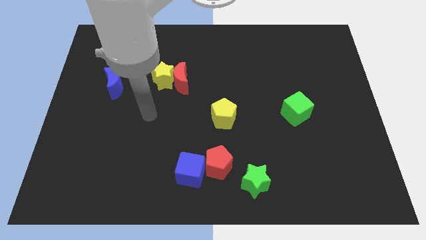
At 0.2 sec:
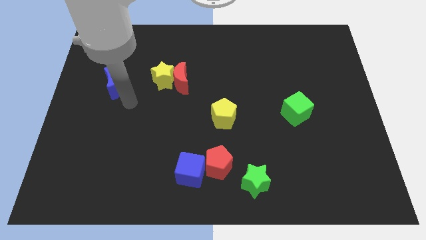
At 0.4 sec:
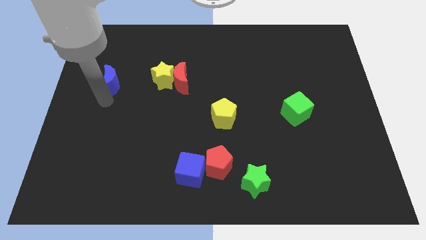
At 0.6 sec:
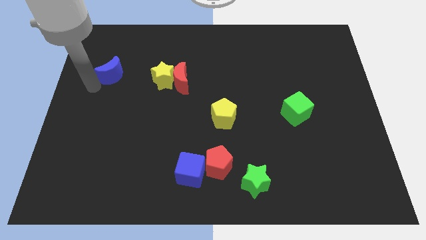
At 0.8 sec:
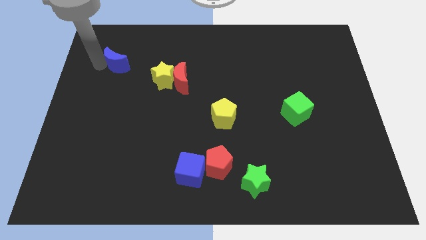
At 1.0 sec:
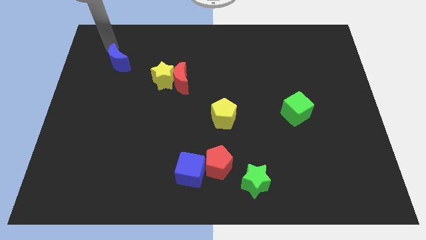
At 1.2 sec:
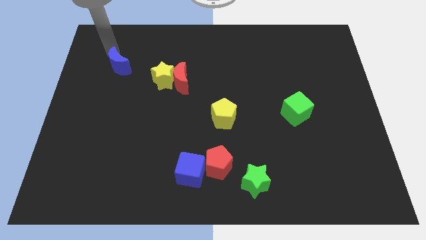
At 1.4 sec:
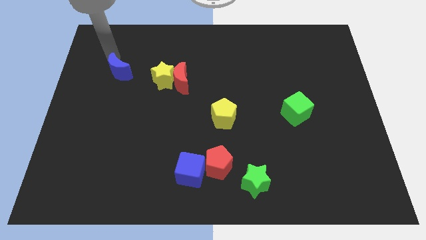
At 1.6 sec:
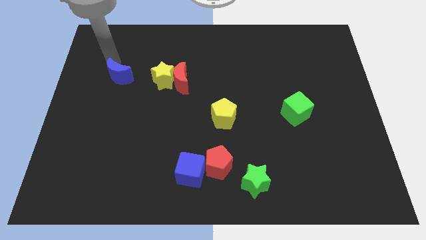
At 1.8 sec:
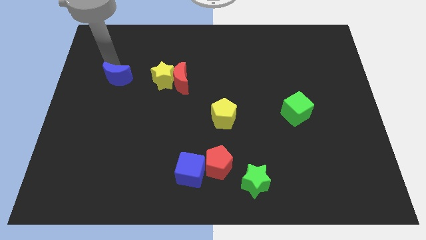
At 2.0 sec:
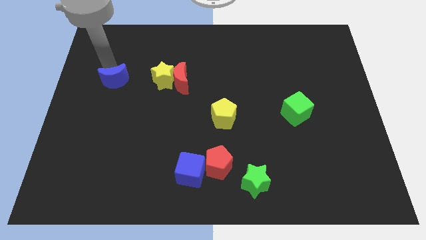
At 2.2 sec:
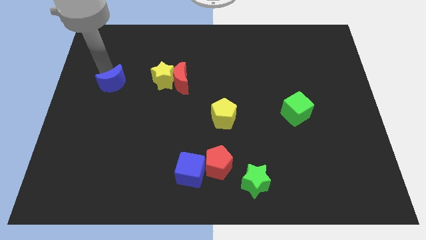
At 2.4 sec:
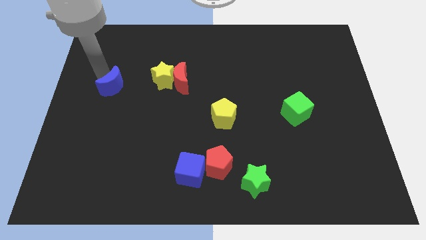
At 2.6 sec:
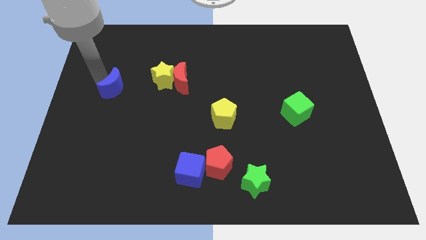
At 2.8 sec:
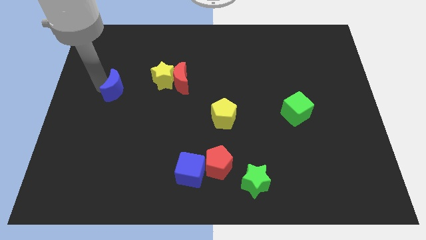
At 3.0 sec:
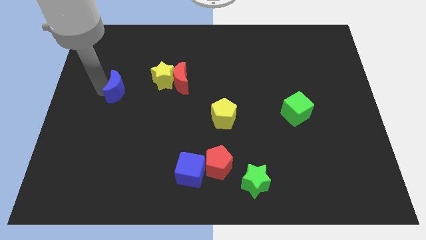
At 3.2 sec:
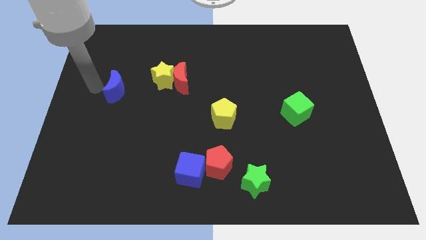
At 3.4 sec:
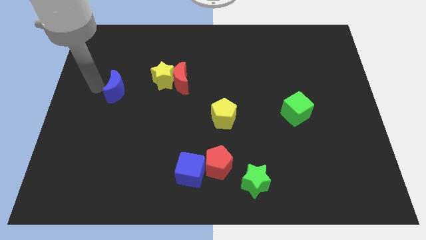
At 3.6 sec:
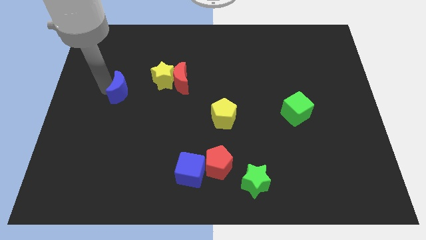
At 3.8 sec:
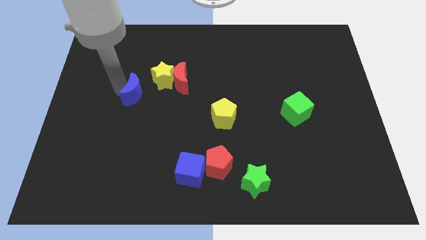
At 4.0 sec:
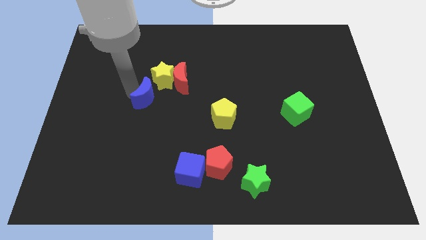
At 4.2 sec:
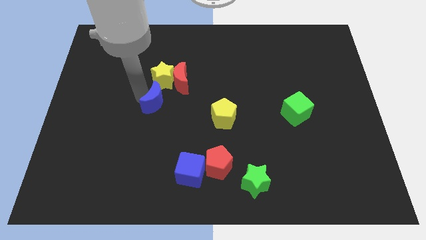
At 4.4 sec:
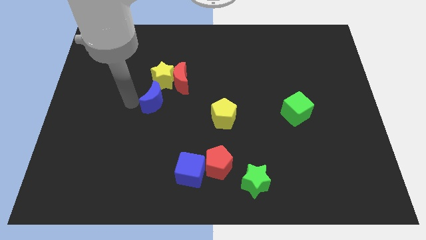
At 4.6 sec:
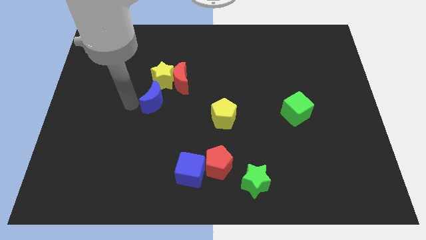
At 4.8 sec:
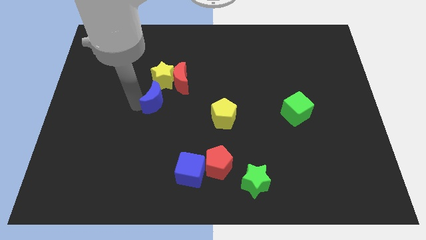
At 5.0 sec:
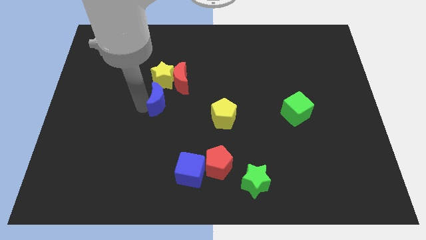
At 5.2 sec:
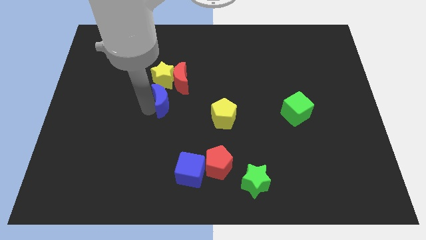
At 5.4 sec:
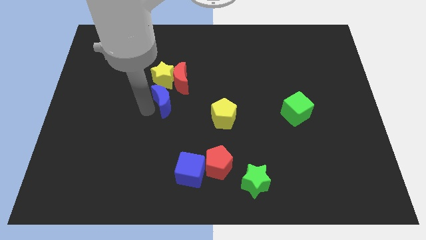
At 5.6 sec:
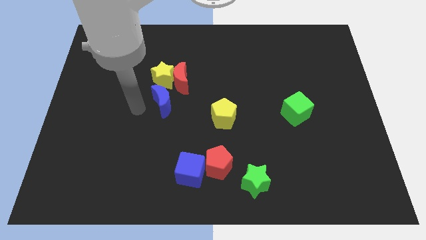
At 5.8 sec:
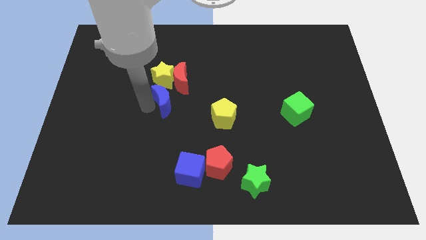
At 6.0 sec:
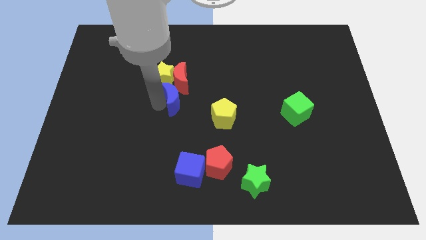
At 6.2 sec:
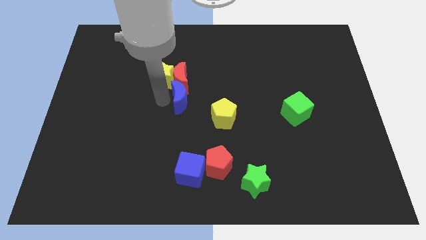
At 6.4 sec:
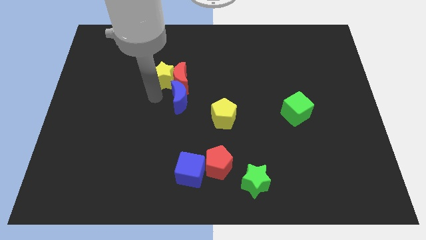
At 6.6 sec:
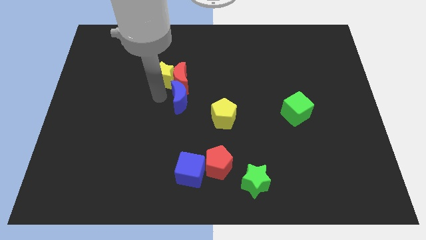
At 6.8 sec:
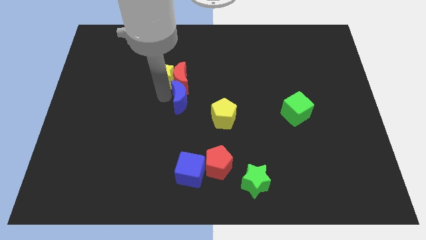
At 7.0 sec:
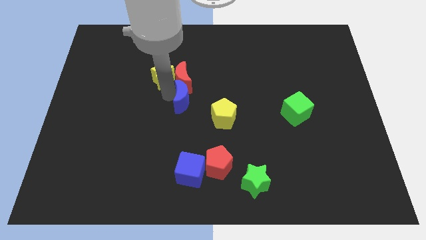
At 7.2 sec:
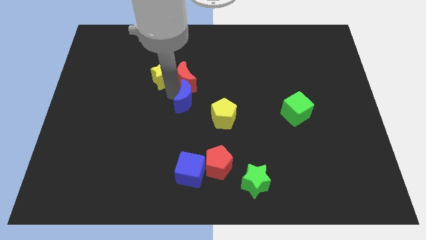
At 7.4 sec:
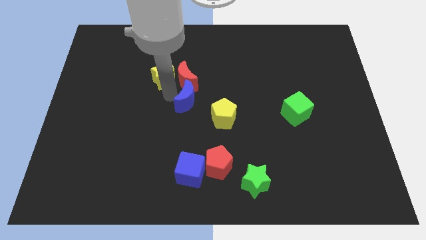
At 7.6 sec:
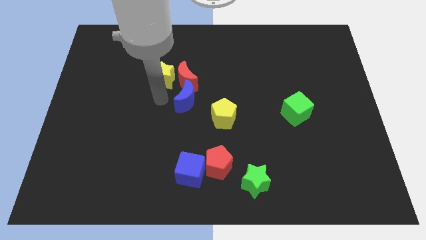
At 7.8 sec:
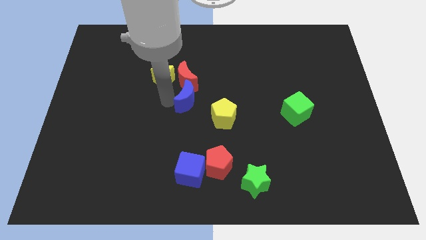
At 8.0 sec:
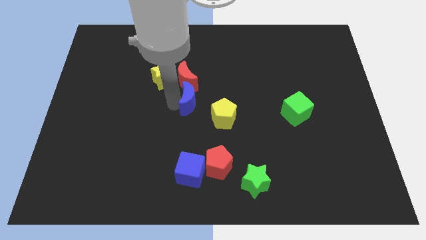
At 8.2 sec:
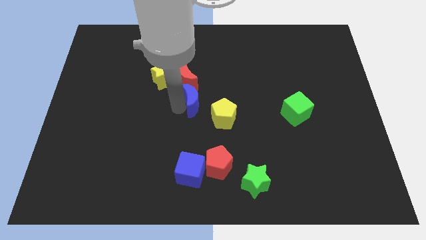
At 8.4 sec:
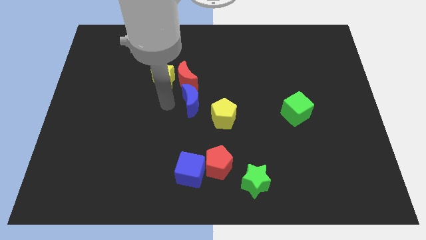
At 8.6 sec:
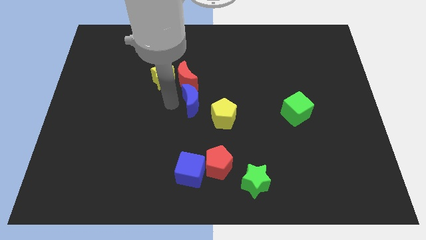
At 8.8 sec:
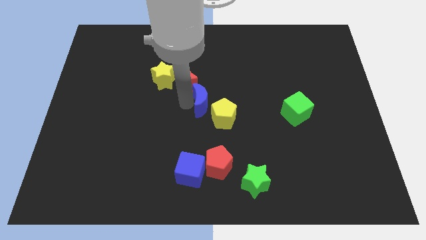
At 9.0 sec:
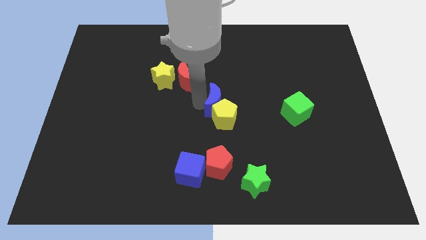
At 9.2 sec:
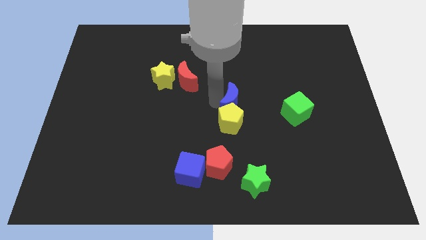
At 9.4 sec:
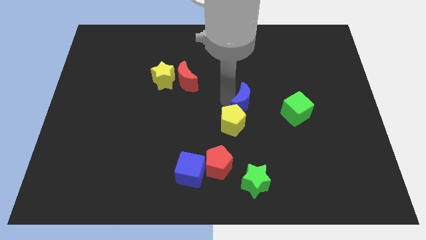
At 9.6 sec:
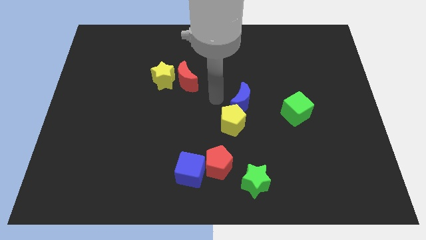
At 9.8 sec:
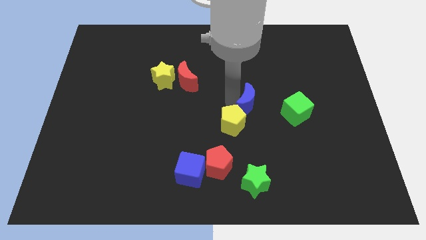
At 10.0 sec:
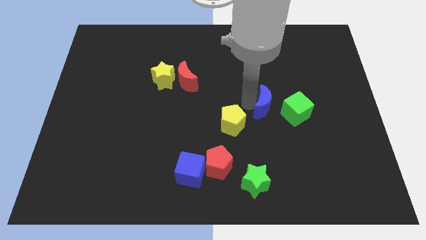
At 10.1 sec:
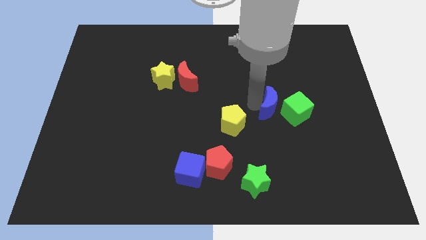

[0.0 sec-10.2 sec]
put the blue moon towards the green cube

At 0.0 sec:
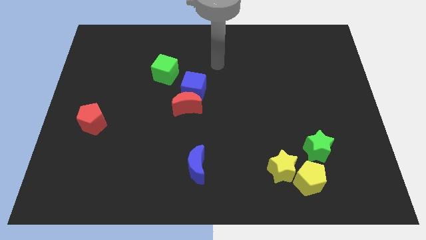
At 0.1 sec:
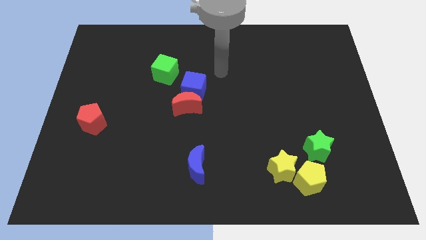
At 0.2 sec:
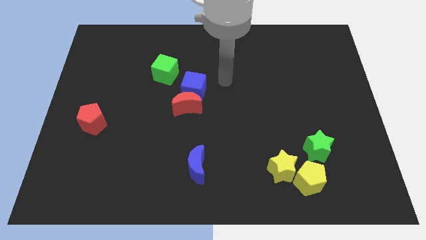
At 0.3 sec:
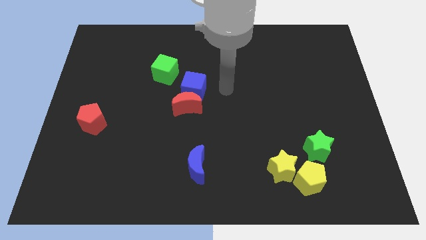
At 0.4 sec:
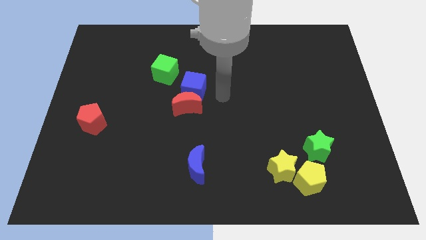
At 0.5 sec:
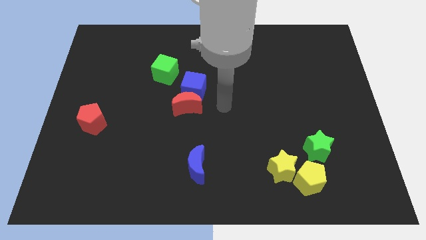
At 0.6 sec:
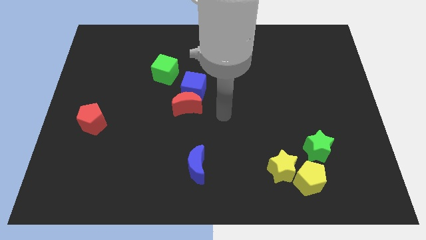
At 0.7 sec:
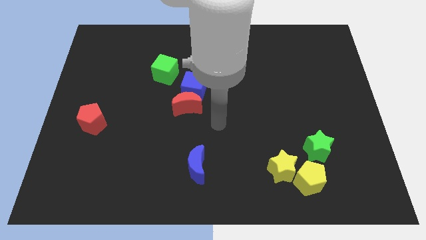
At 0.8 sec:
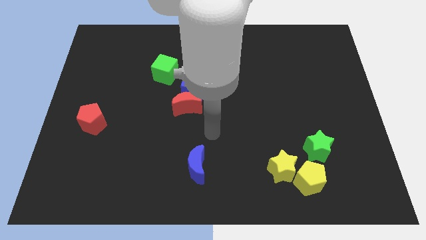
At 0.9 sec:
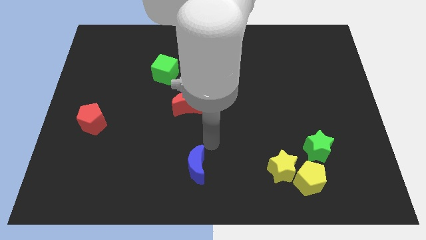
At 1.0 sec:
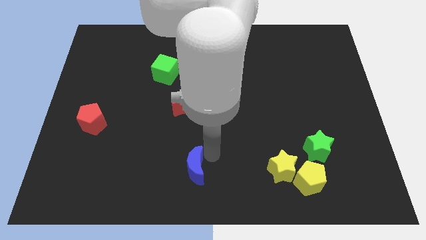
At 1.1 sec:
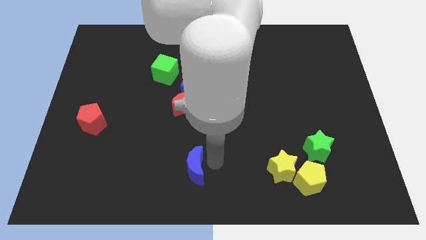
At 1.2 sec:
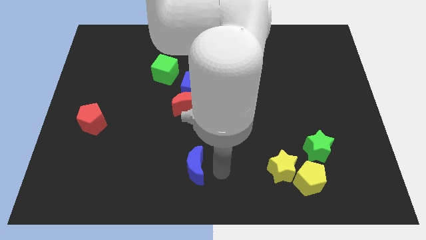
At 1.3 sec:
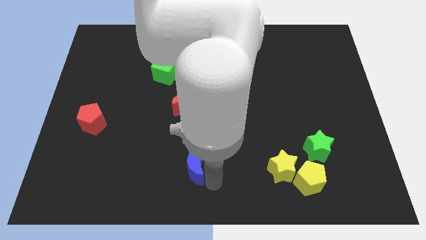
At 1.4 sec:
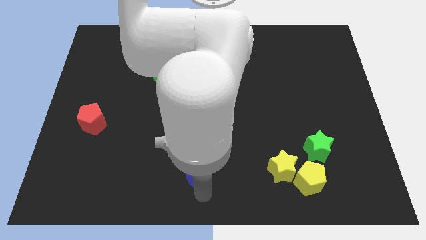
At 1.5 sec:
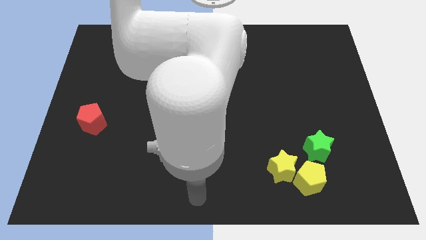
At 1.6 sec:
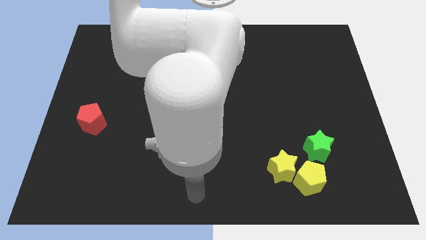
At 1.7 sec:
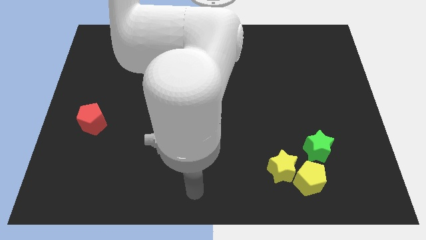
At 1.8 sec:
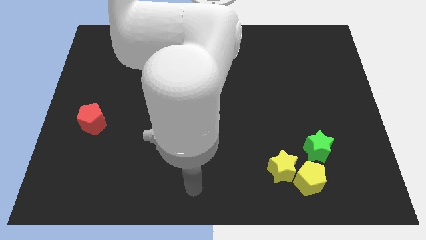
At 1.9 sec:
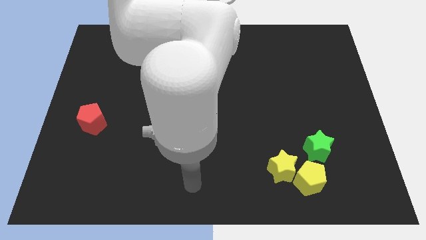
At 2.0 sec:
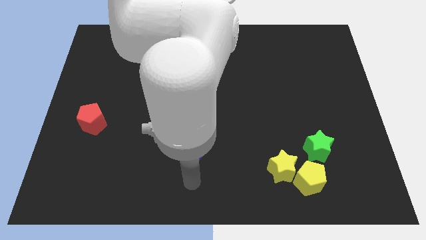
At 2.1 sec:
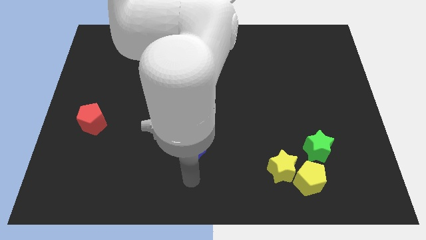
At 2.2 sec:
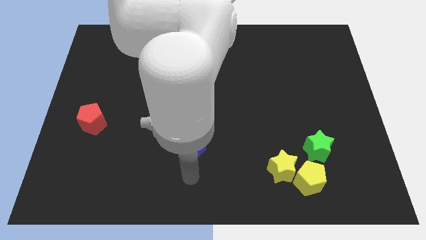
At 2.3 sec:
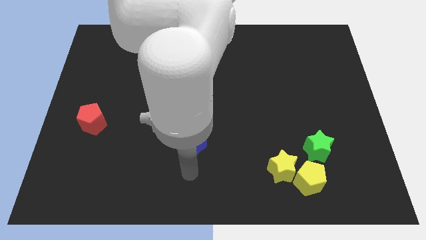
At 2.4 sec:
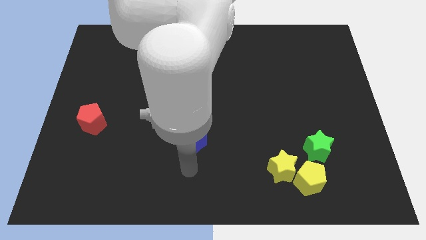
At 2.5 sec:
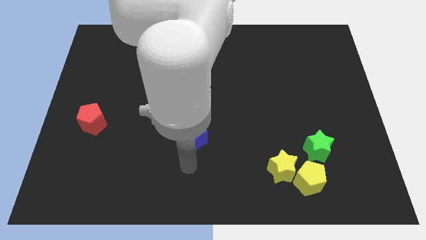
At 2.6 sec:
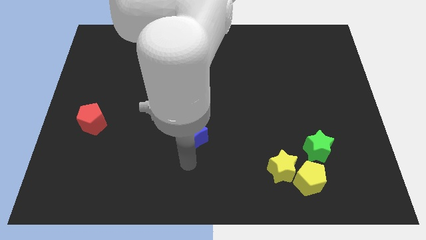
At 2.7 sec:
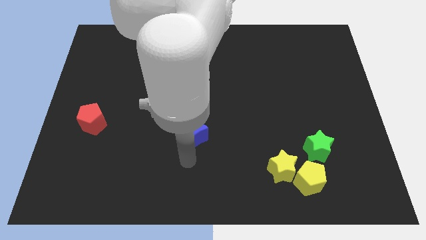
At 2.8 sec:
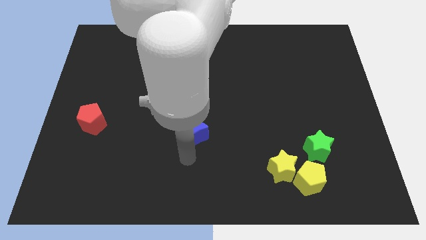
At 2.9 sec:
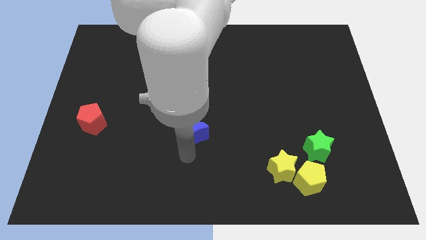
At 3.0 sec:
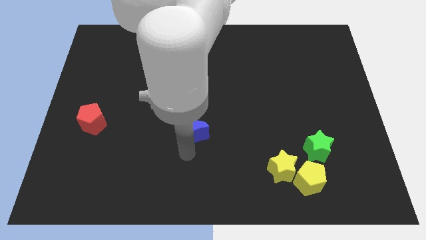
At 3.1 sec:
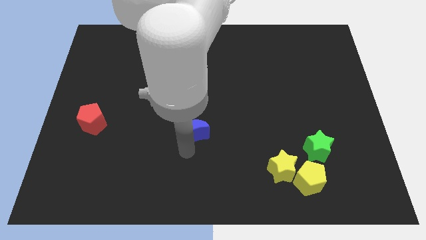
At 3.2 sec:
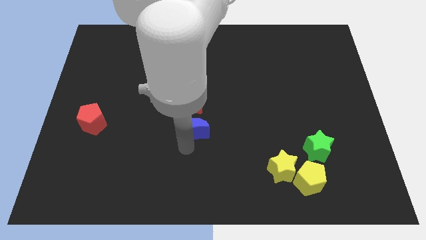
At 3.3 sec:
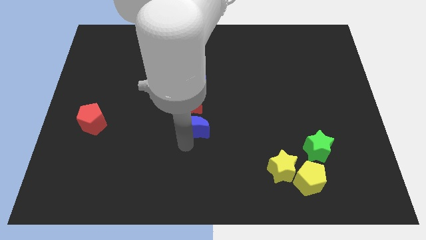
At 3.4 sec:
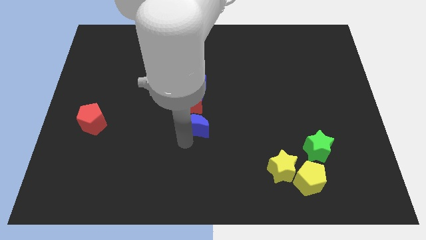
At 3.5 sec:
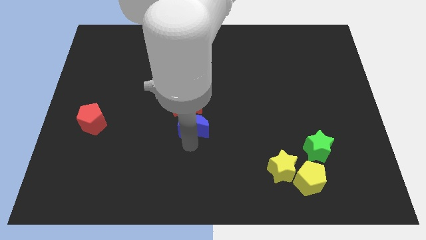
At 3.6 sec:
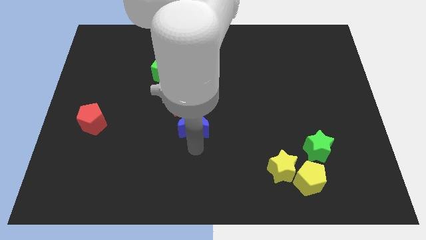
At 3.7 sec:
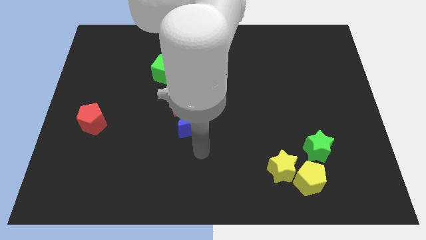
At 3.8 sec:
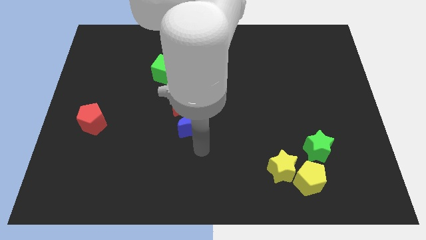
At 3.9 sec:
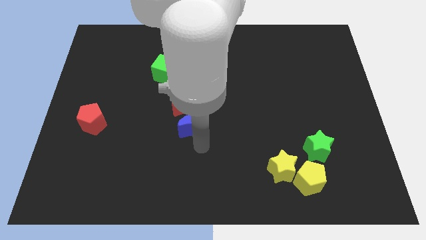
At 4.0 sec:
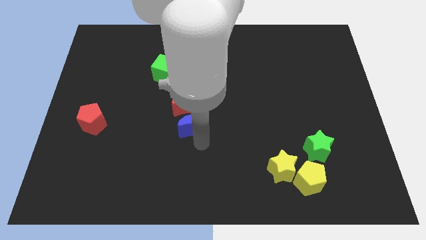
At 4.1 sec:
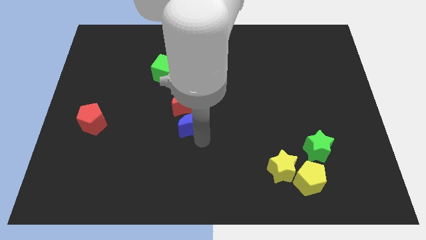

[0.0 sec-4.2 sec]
push the blue moon to the red moon
